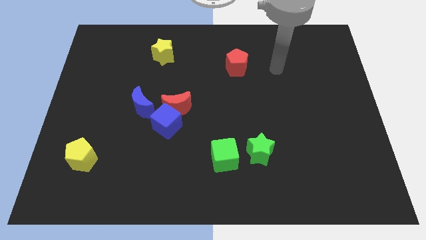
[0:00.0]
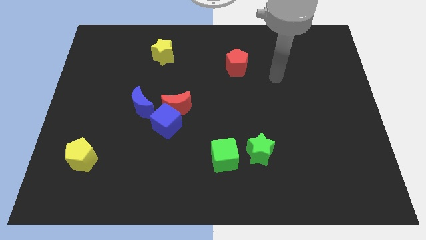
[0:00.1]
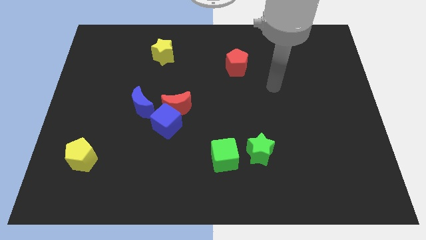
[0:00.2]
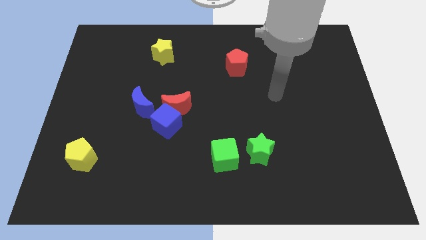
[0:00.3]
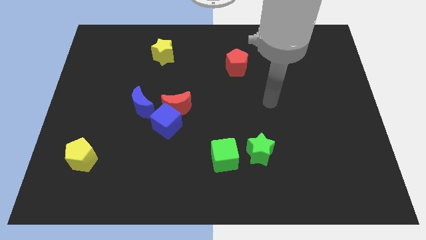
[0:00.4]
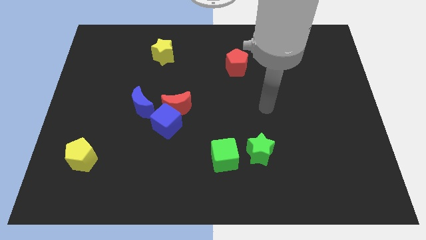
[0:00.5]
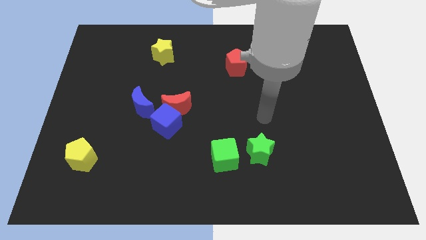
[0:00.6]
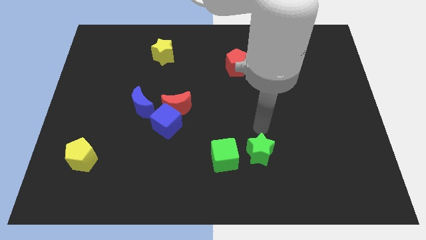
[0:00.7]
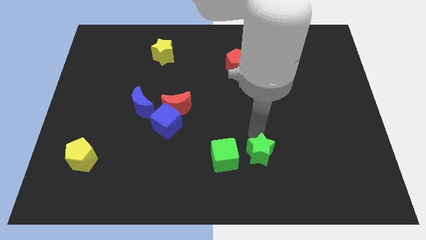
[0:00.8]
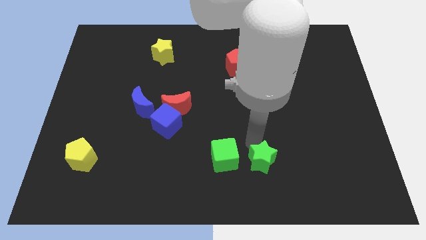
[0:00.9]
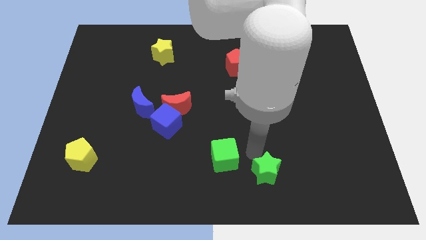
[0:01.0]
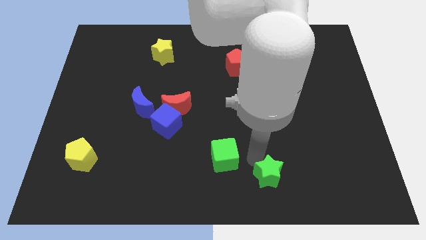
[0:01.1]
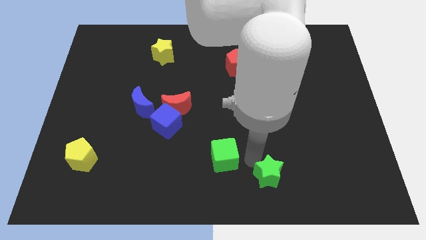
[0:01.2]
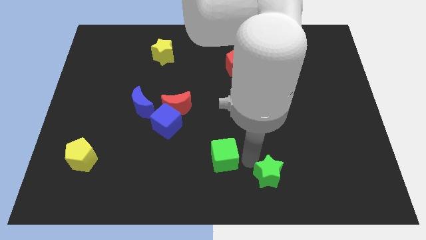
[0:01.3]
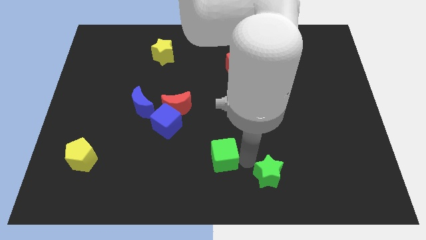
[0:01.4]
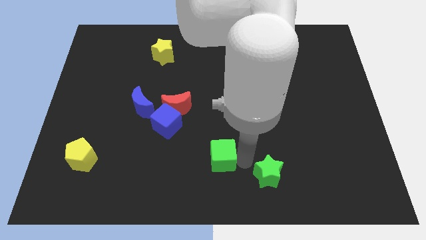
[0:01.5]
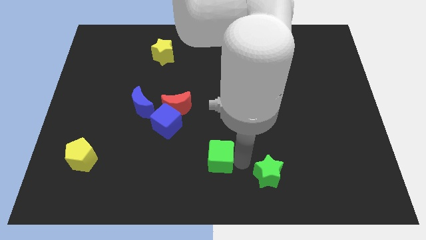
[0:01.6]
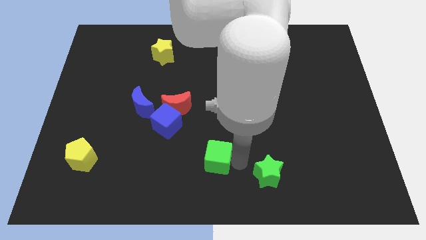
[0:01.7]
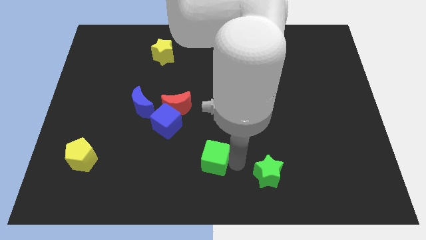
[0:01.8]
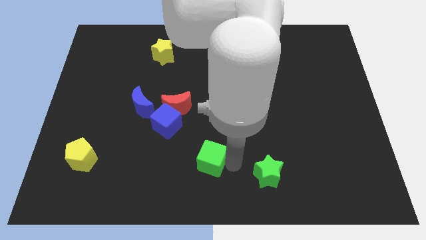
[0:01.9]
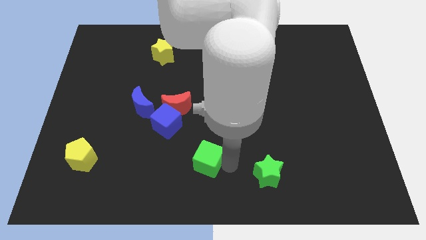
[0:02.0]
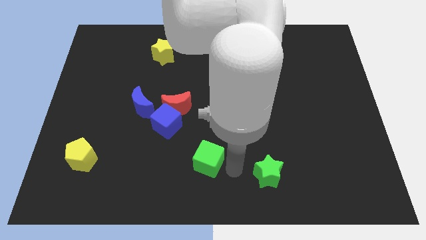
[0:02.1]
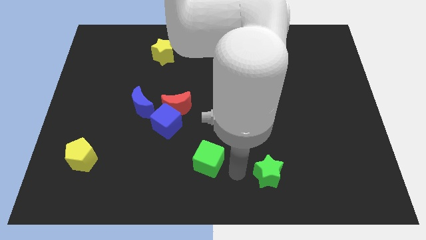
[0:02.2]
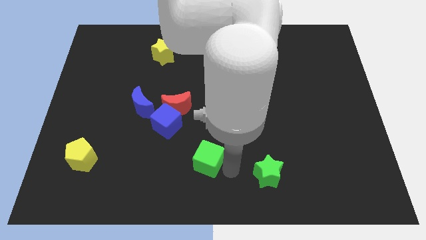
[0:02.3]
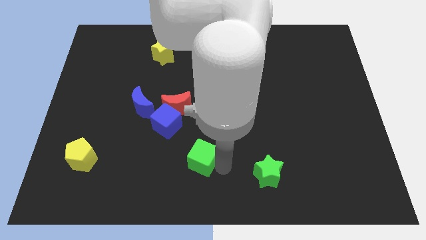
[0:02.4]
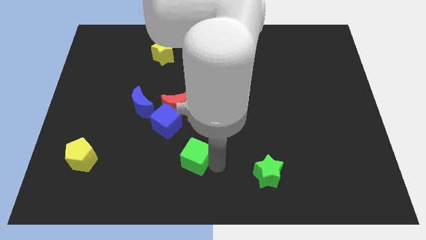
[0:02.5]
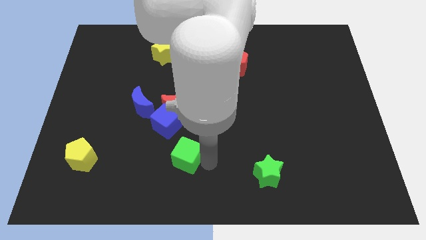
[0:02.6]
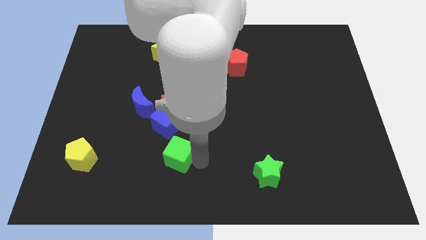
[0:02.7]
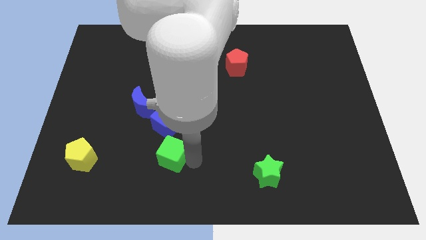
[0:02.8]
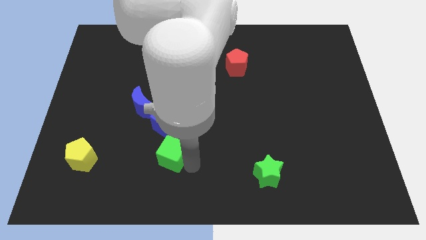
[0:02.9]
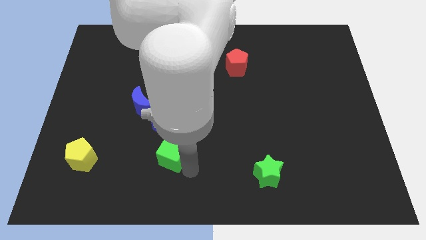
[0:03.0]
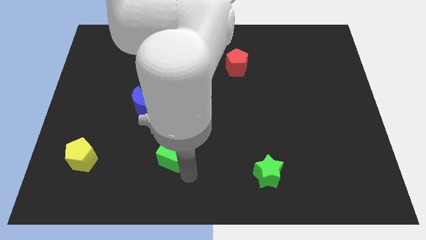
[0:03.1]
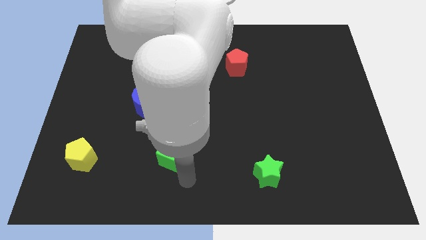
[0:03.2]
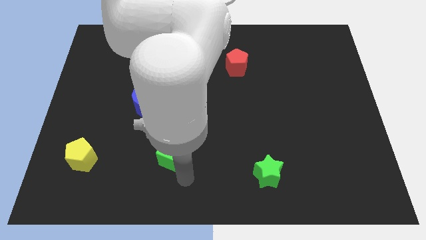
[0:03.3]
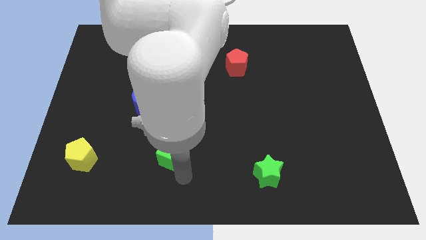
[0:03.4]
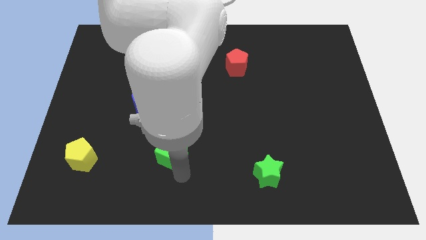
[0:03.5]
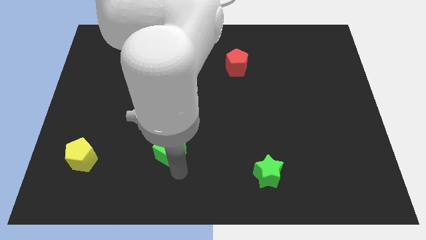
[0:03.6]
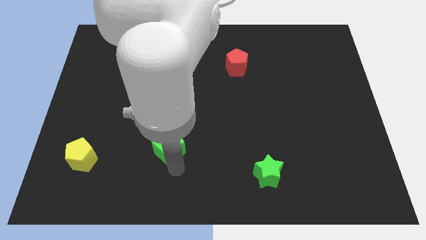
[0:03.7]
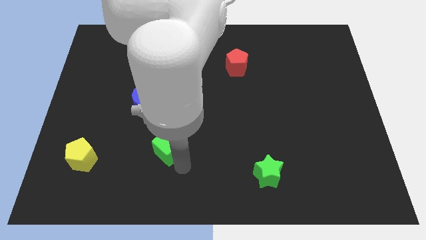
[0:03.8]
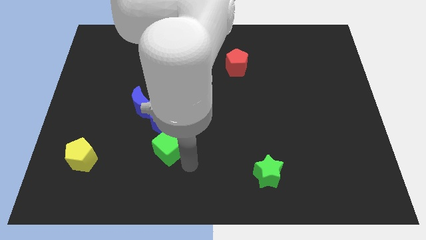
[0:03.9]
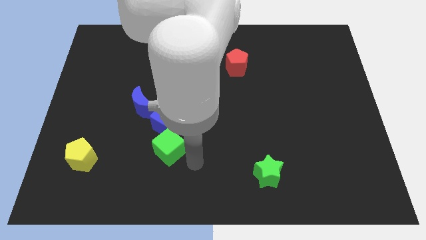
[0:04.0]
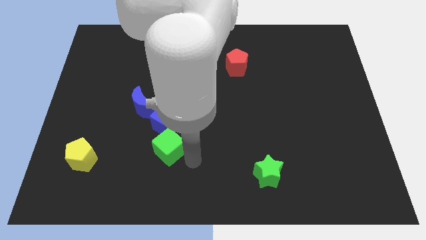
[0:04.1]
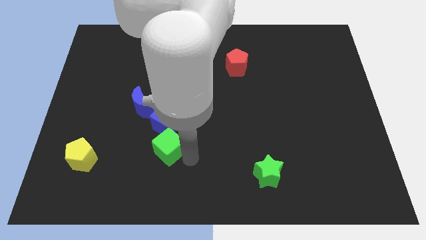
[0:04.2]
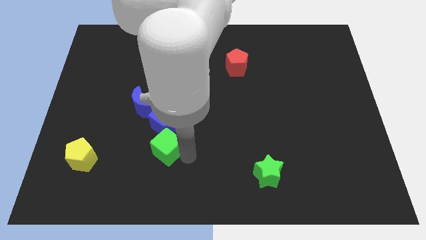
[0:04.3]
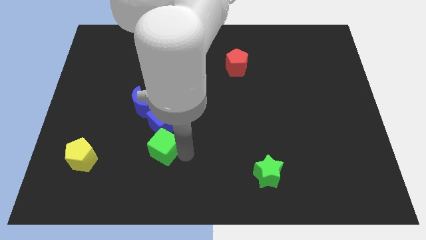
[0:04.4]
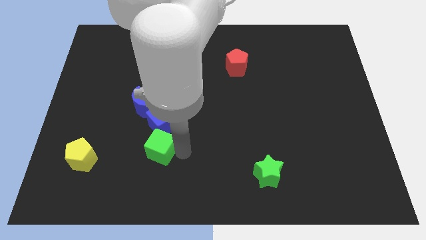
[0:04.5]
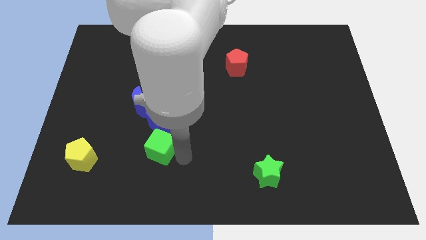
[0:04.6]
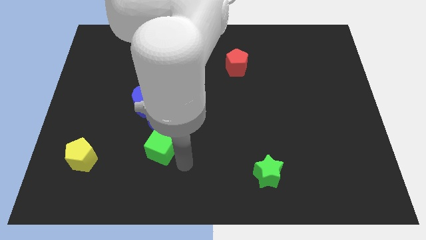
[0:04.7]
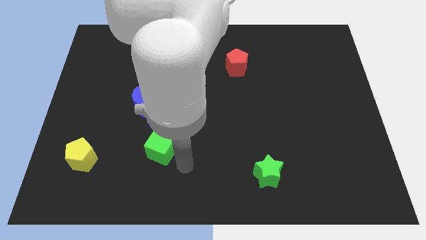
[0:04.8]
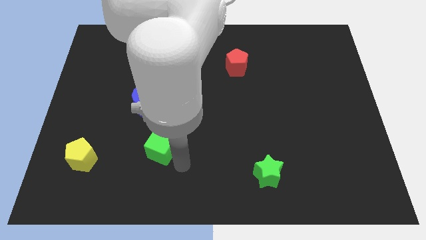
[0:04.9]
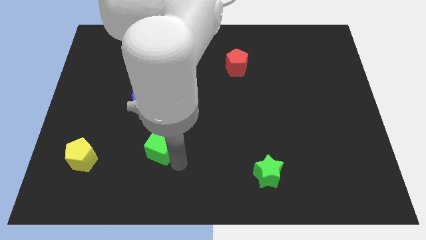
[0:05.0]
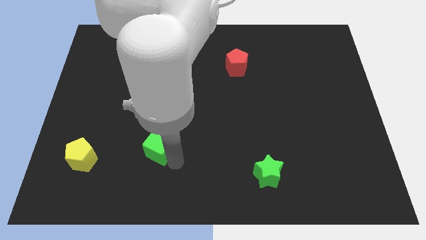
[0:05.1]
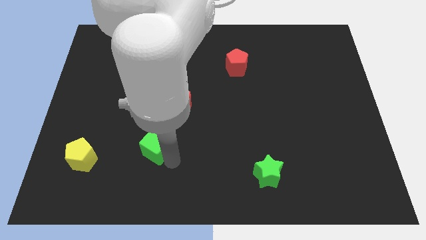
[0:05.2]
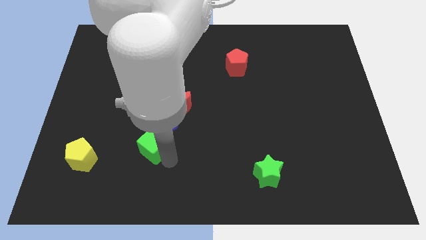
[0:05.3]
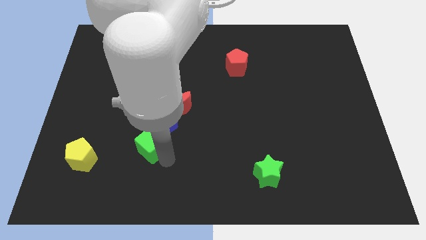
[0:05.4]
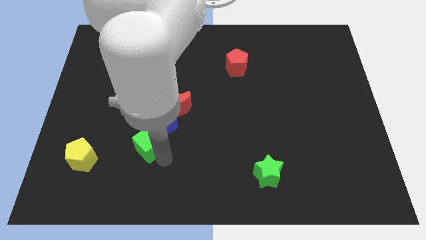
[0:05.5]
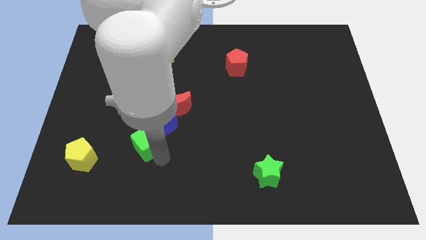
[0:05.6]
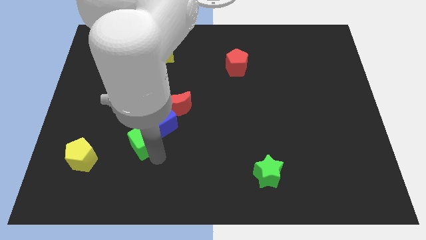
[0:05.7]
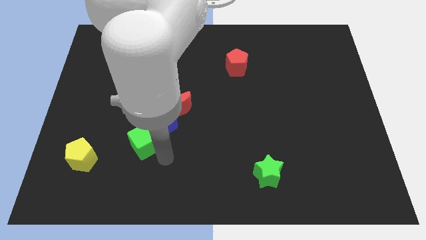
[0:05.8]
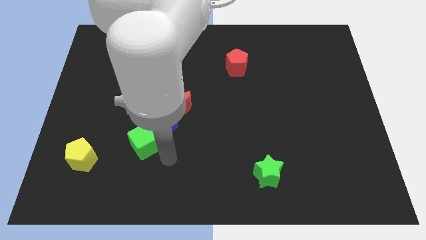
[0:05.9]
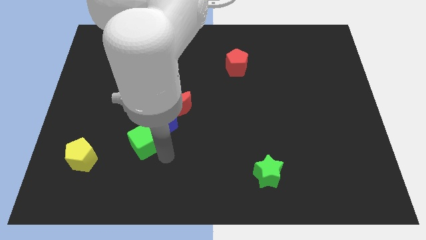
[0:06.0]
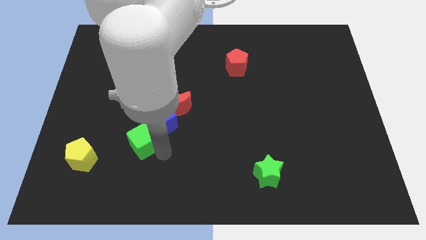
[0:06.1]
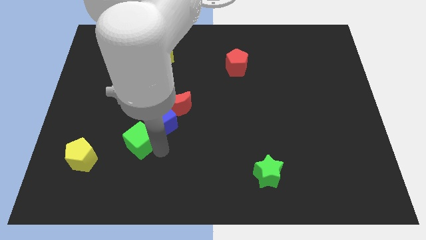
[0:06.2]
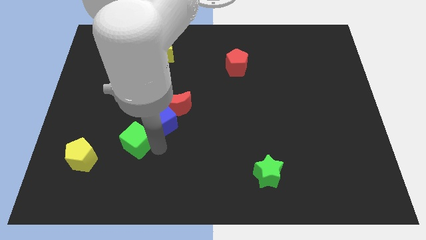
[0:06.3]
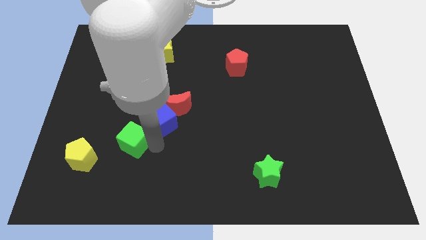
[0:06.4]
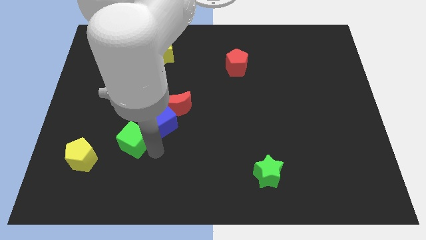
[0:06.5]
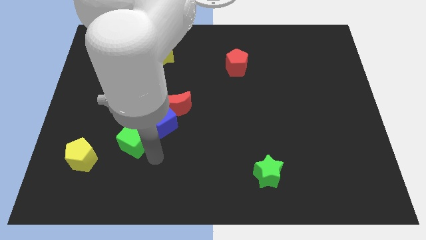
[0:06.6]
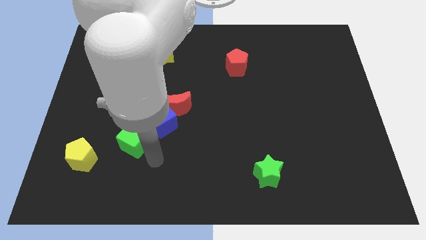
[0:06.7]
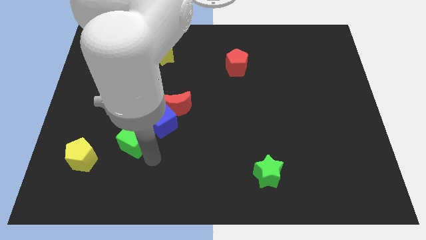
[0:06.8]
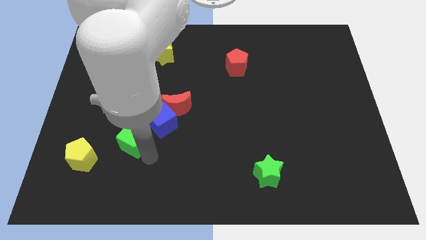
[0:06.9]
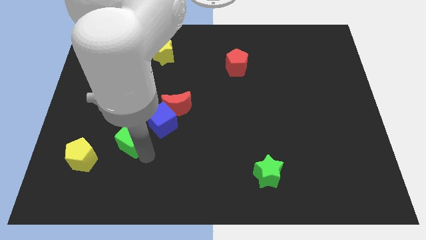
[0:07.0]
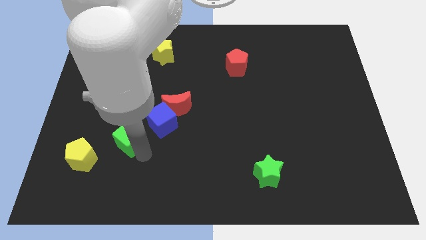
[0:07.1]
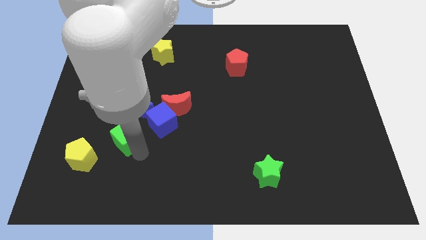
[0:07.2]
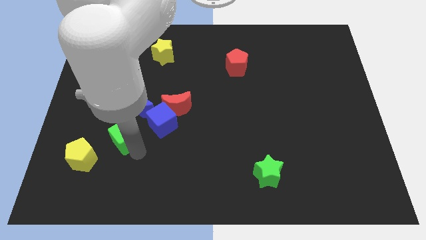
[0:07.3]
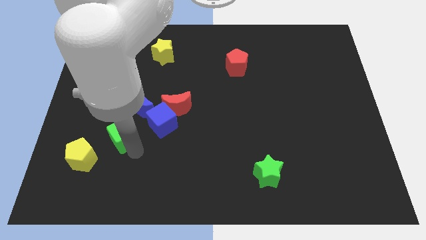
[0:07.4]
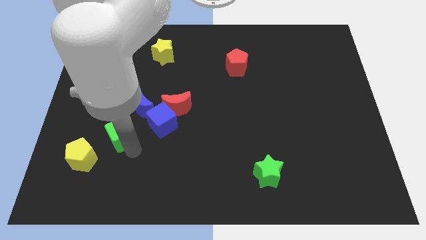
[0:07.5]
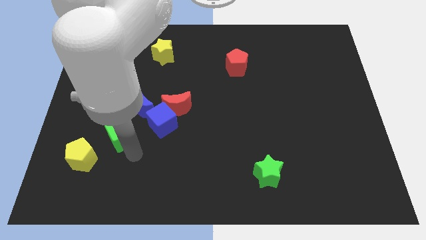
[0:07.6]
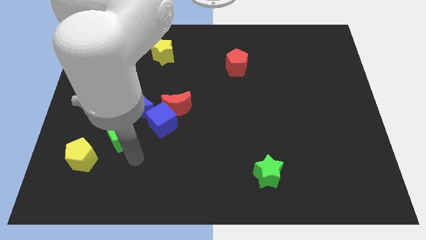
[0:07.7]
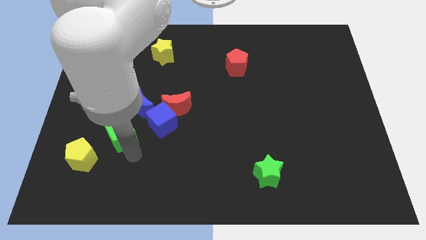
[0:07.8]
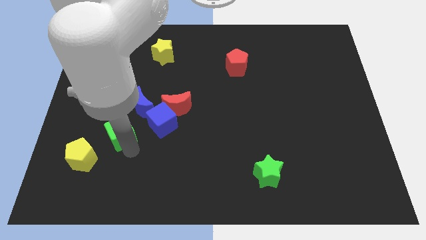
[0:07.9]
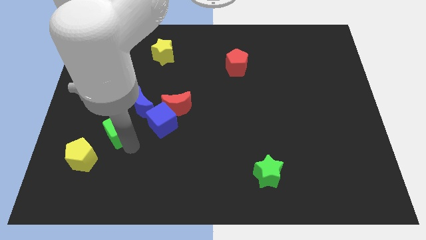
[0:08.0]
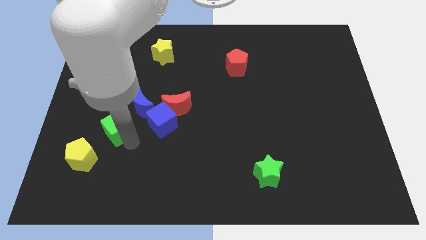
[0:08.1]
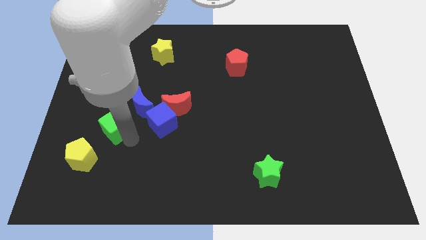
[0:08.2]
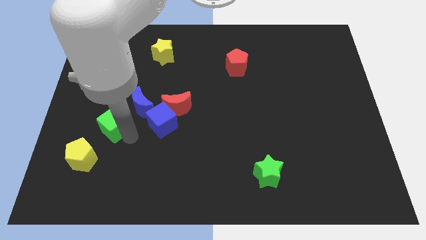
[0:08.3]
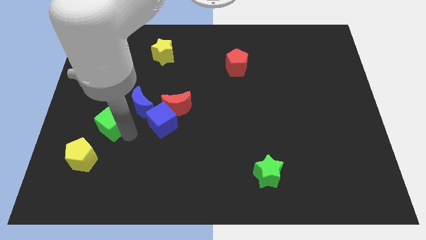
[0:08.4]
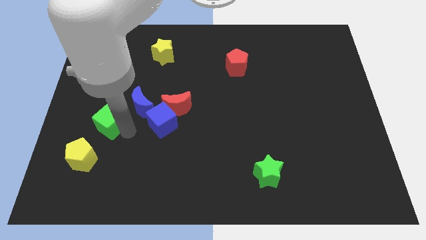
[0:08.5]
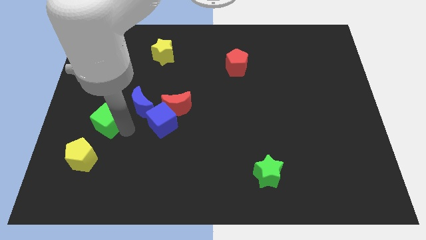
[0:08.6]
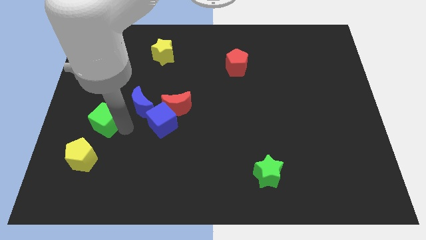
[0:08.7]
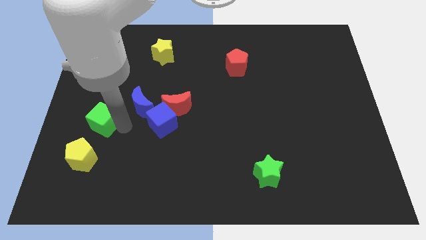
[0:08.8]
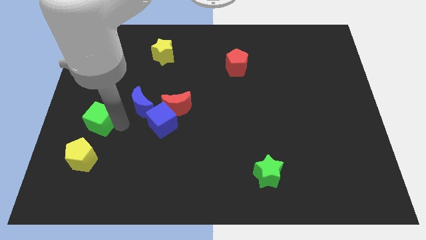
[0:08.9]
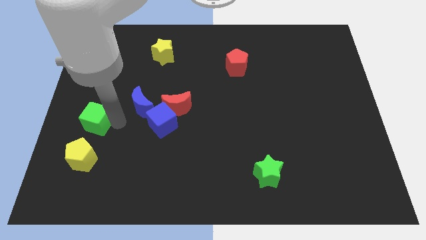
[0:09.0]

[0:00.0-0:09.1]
push the green cube to the center left
